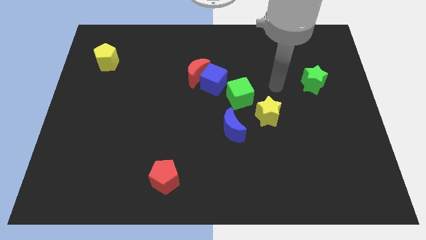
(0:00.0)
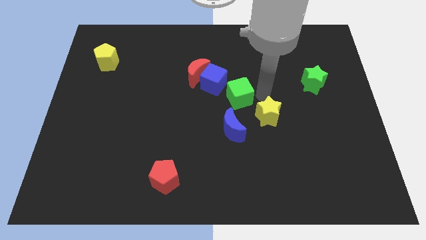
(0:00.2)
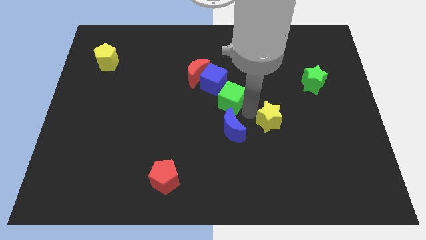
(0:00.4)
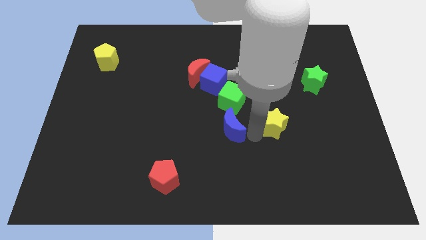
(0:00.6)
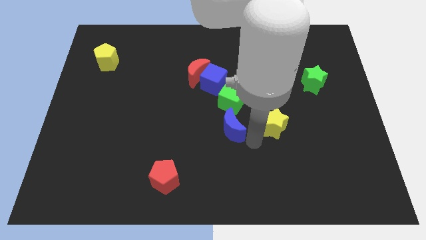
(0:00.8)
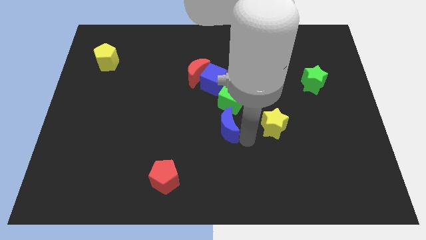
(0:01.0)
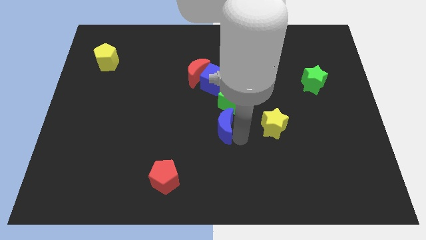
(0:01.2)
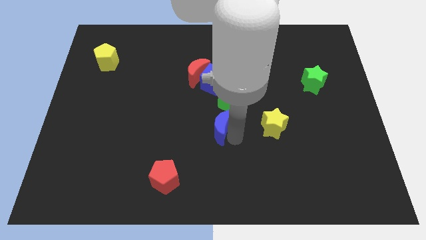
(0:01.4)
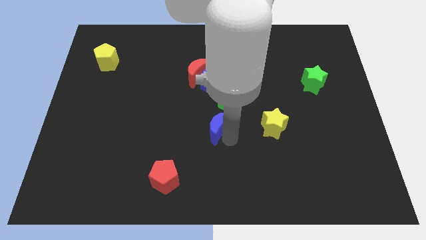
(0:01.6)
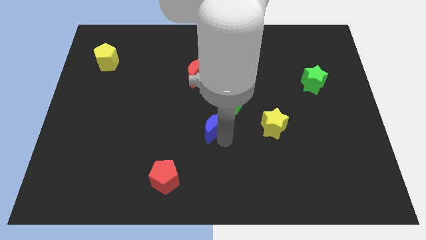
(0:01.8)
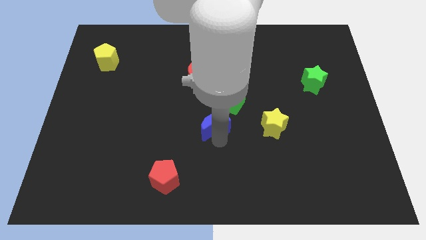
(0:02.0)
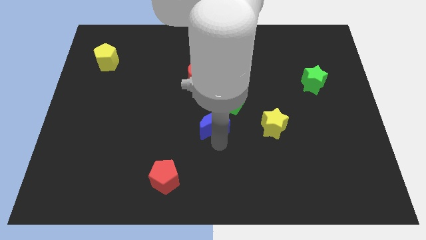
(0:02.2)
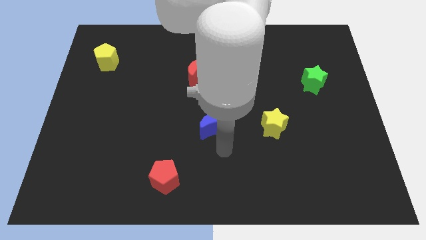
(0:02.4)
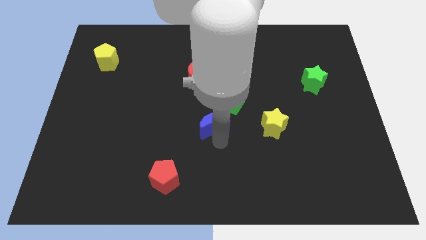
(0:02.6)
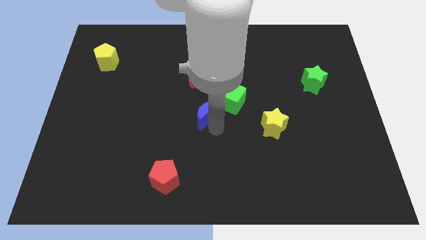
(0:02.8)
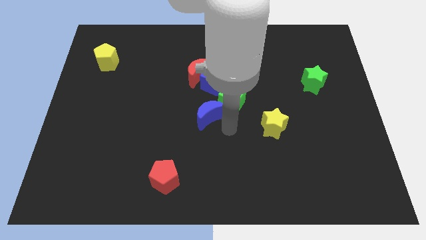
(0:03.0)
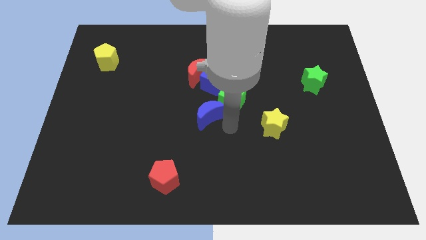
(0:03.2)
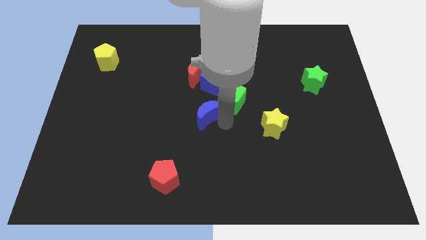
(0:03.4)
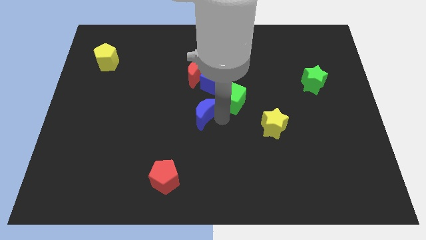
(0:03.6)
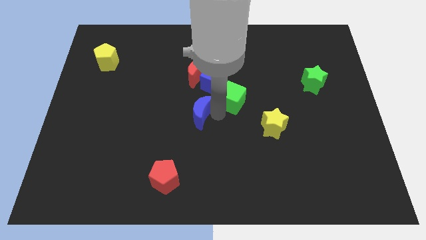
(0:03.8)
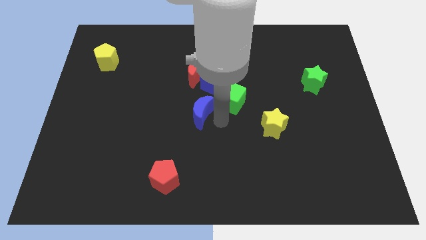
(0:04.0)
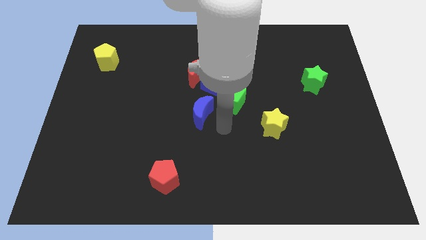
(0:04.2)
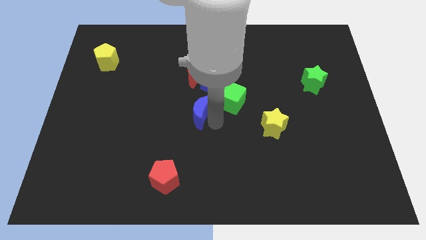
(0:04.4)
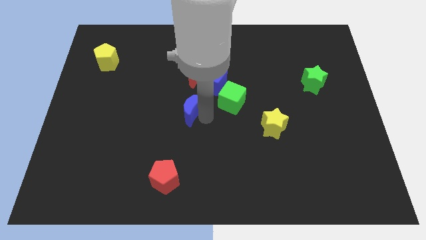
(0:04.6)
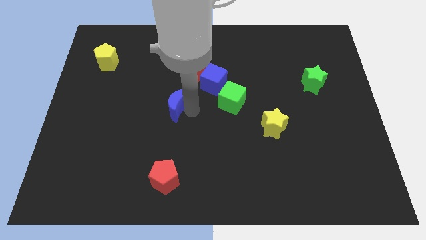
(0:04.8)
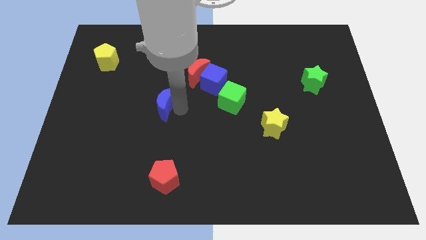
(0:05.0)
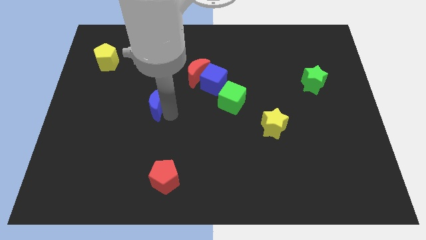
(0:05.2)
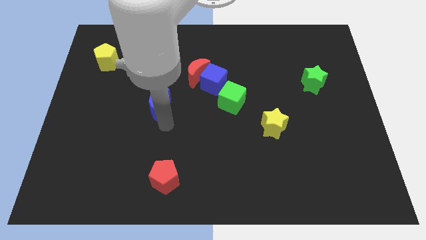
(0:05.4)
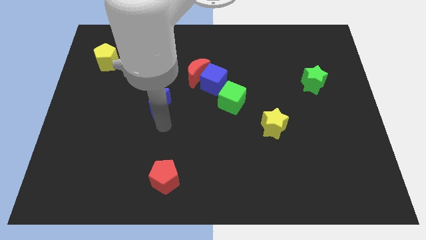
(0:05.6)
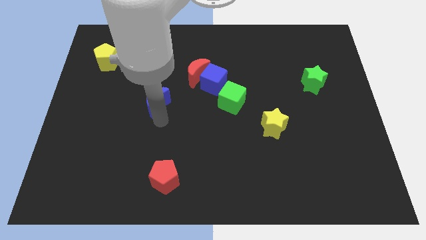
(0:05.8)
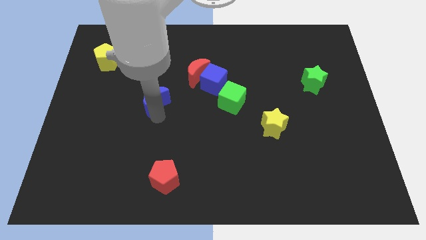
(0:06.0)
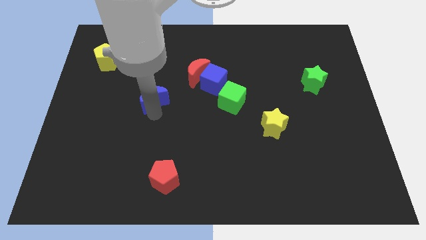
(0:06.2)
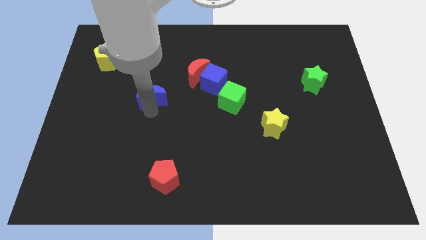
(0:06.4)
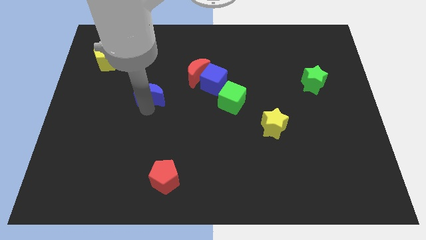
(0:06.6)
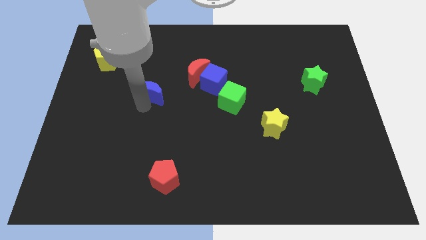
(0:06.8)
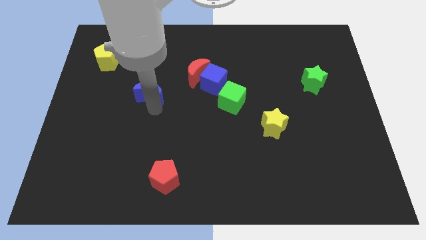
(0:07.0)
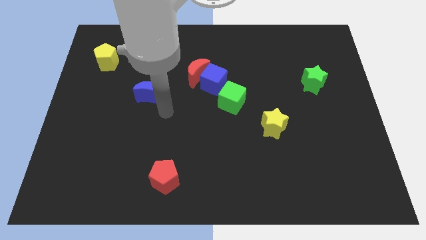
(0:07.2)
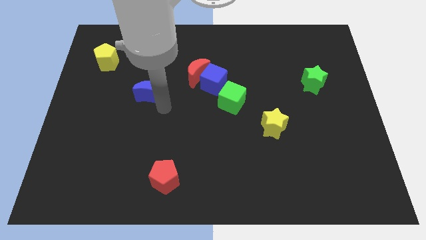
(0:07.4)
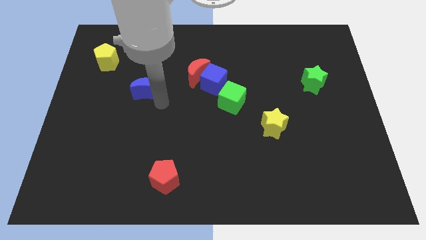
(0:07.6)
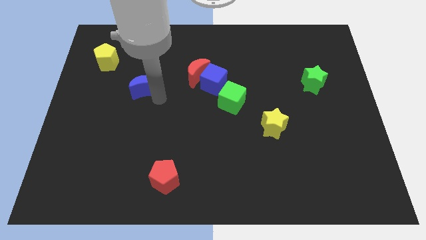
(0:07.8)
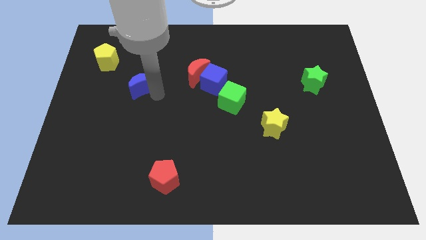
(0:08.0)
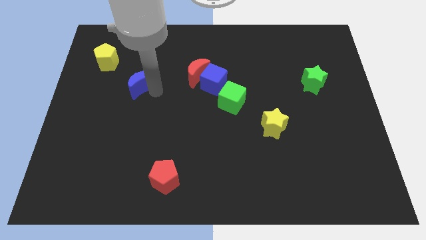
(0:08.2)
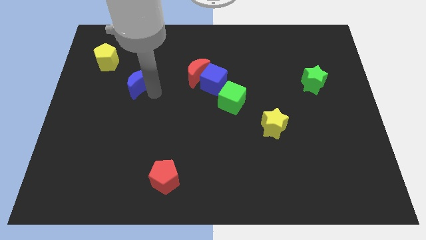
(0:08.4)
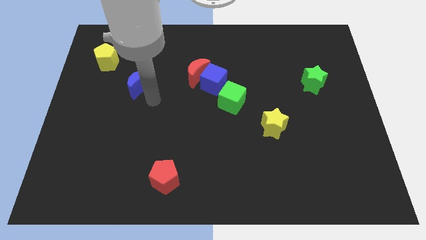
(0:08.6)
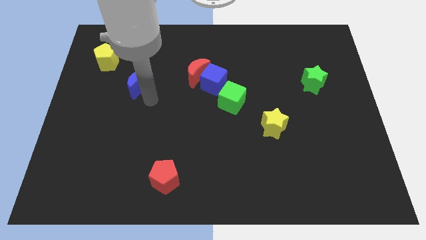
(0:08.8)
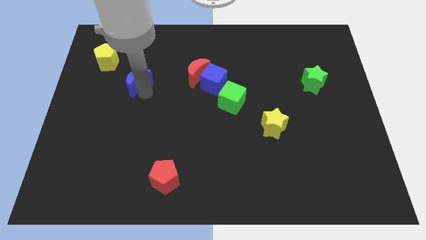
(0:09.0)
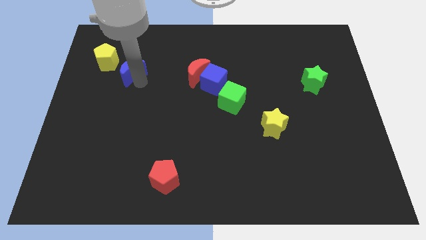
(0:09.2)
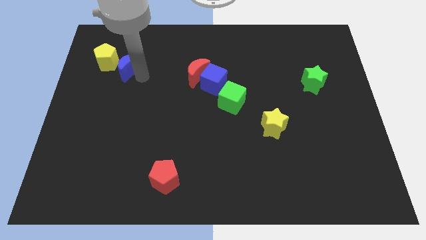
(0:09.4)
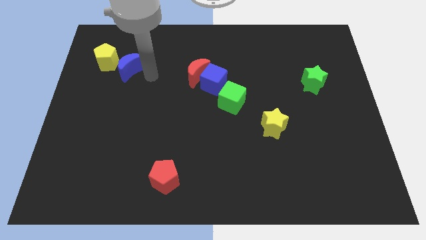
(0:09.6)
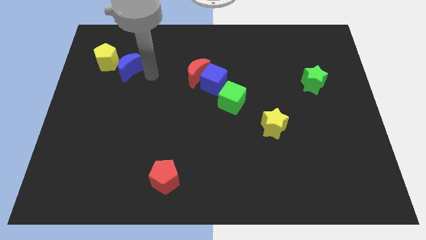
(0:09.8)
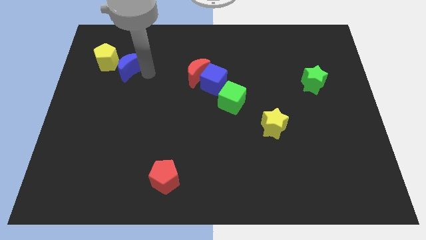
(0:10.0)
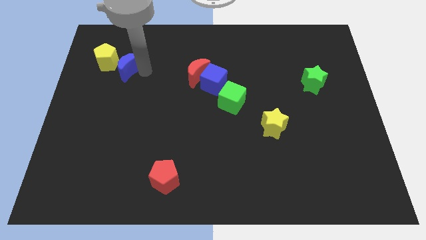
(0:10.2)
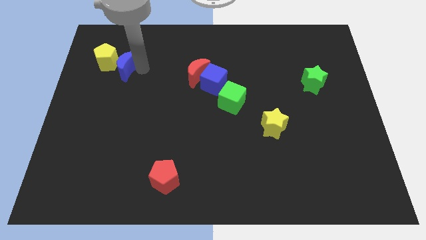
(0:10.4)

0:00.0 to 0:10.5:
put the blue moon to the yellow pentagon

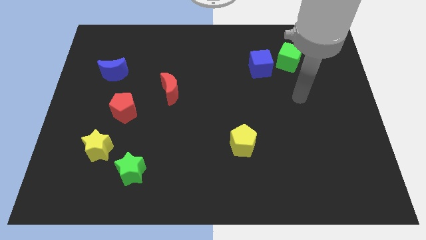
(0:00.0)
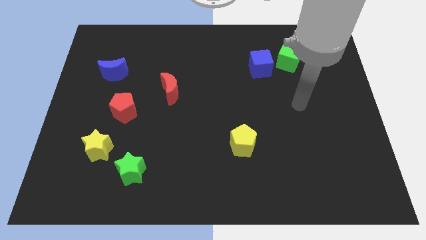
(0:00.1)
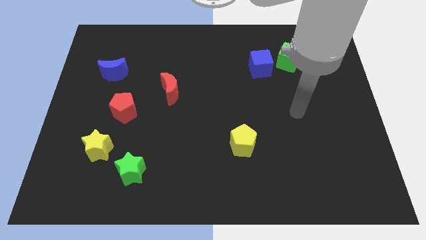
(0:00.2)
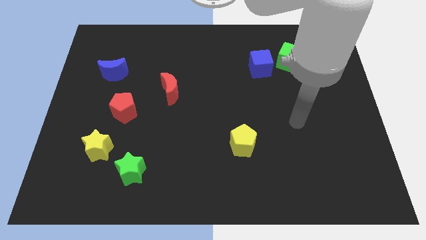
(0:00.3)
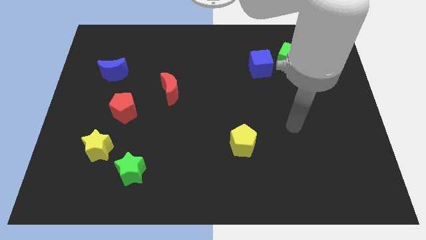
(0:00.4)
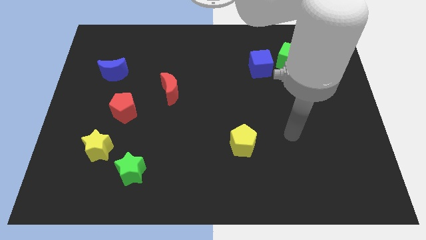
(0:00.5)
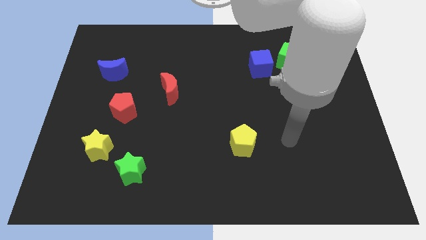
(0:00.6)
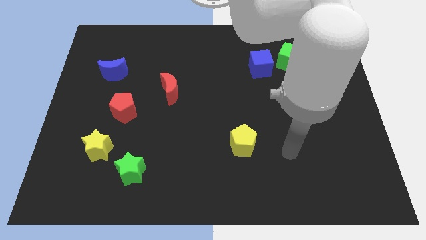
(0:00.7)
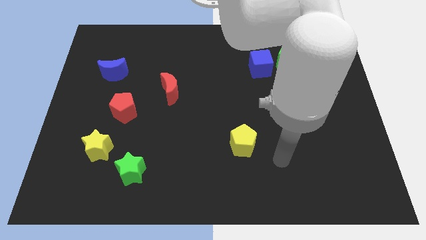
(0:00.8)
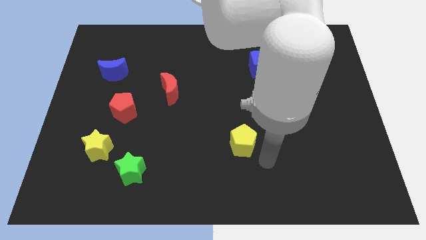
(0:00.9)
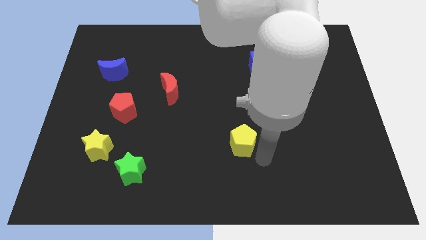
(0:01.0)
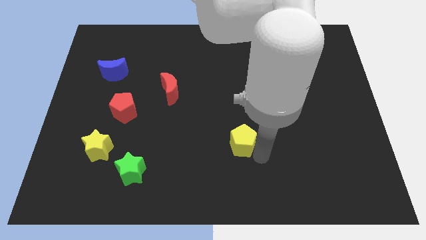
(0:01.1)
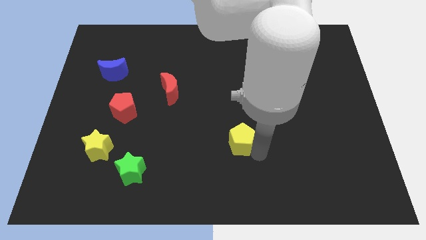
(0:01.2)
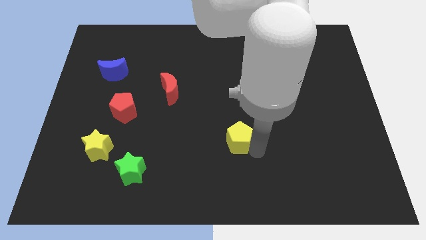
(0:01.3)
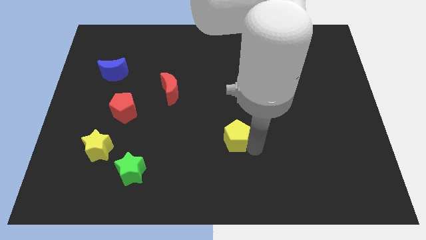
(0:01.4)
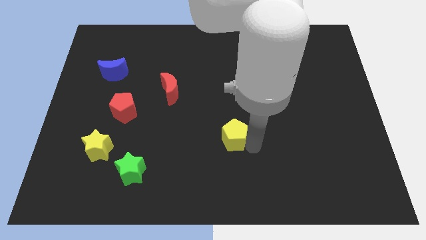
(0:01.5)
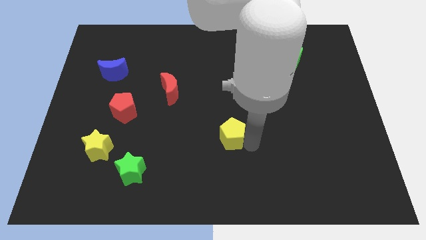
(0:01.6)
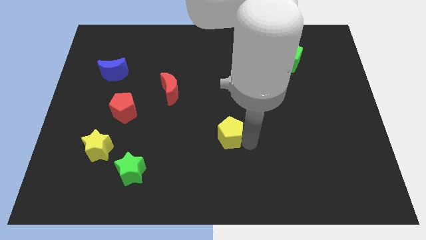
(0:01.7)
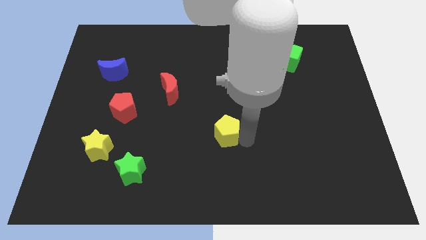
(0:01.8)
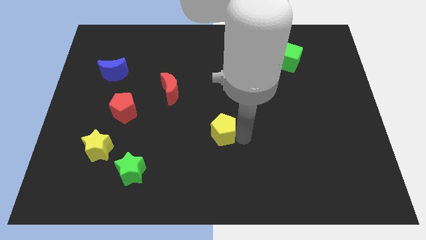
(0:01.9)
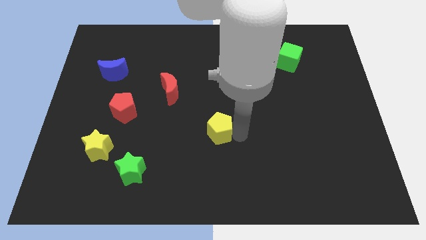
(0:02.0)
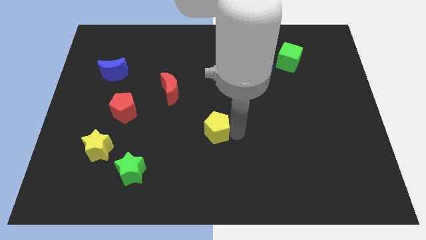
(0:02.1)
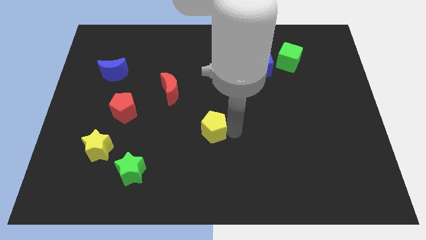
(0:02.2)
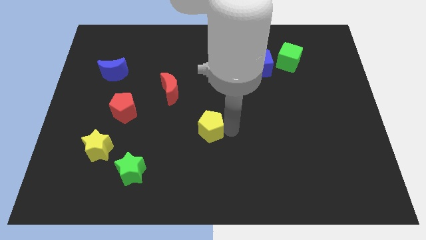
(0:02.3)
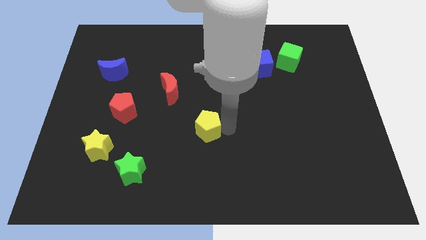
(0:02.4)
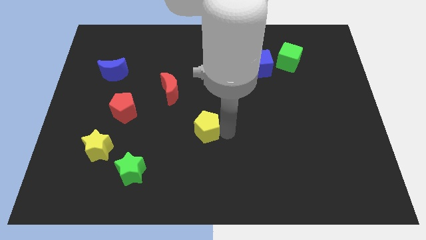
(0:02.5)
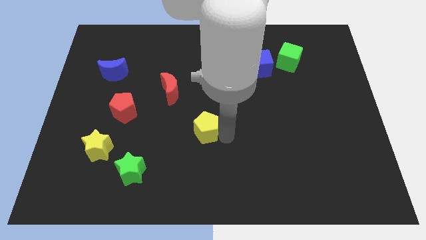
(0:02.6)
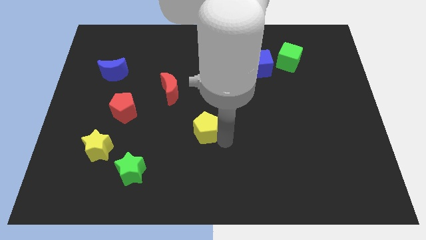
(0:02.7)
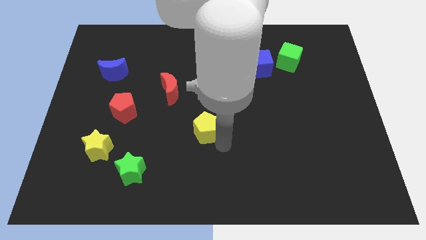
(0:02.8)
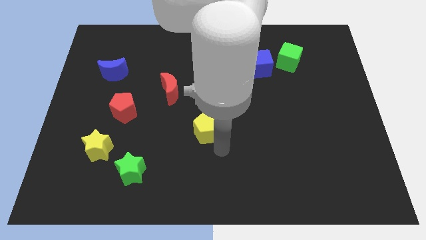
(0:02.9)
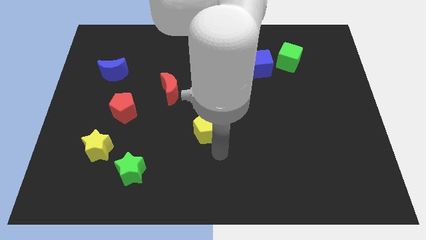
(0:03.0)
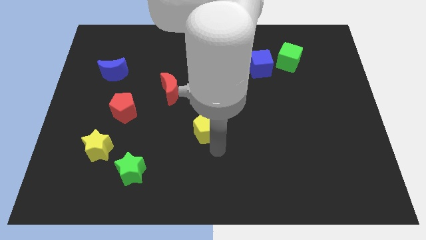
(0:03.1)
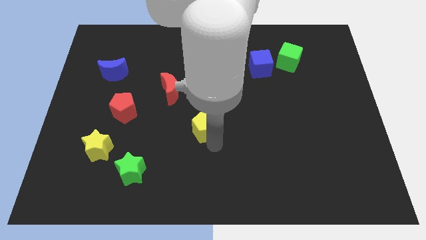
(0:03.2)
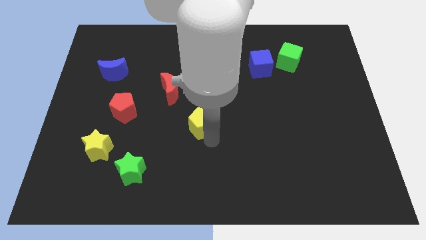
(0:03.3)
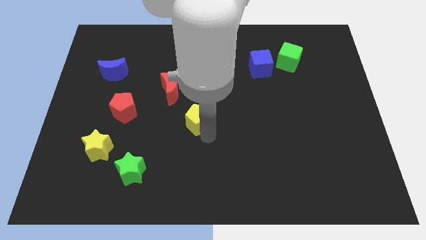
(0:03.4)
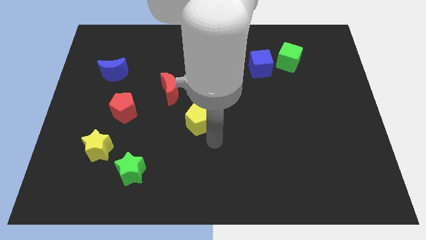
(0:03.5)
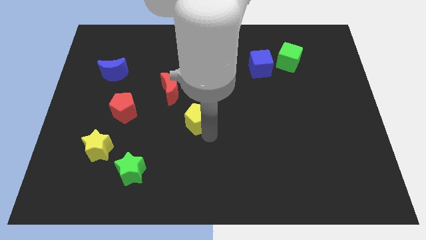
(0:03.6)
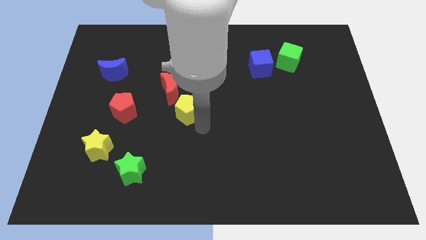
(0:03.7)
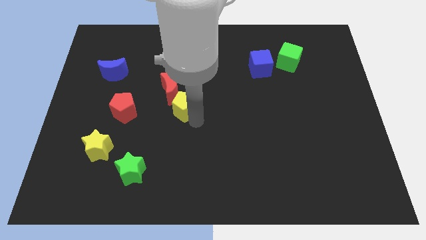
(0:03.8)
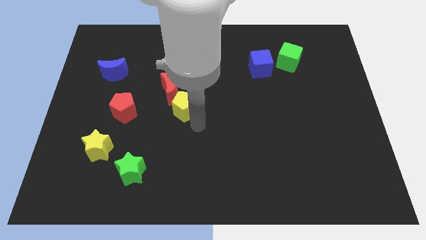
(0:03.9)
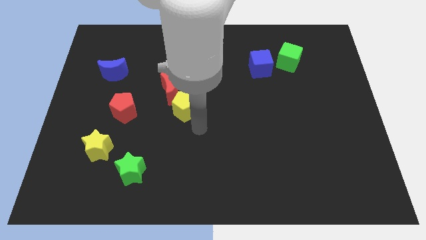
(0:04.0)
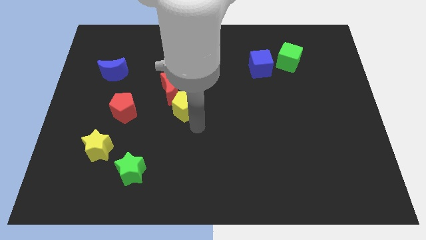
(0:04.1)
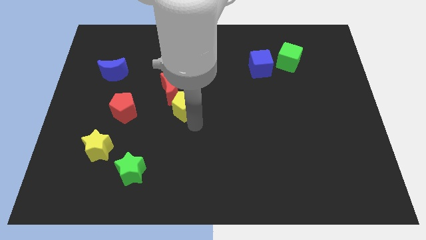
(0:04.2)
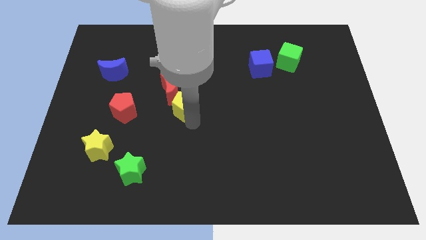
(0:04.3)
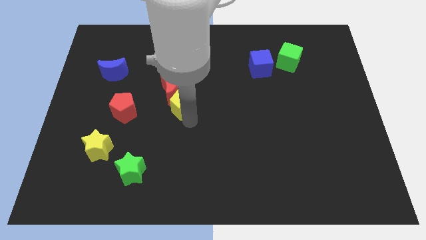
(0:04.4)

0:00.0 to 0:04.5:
slide the yellow pentagon next to the red moon
